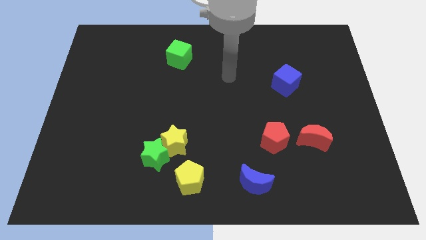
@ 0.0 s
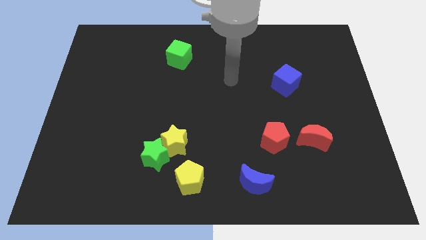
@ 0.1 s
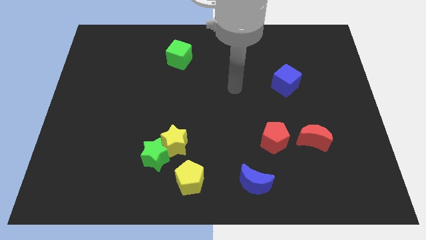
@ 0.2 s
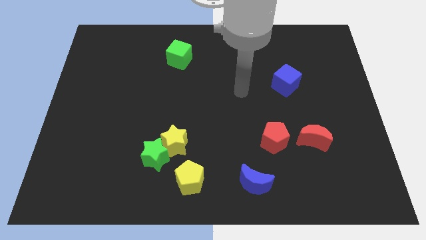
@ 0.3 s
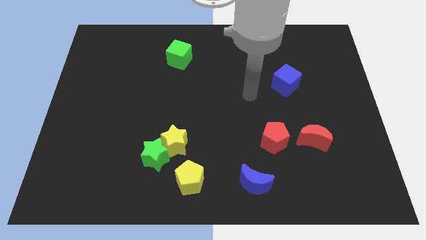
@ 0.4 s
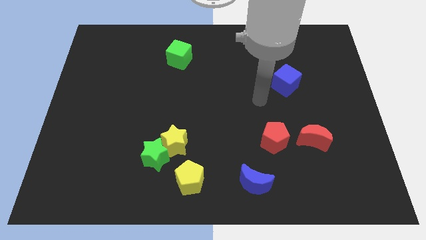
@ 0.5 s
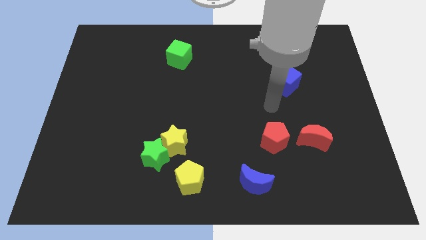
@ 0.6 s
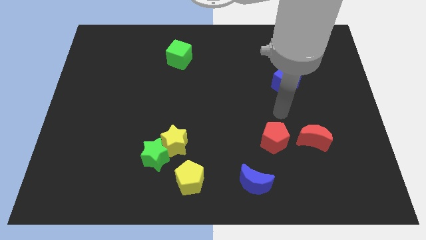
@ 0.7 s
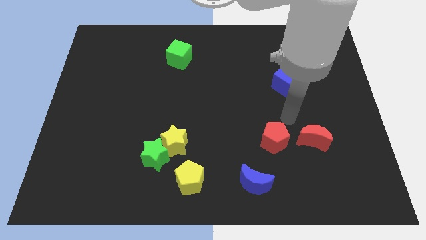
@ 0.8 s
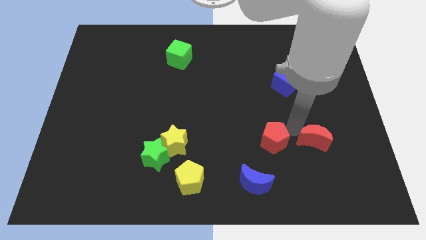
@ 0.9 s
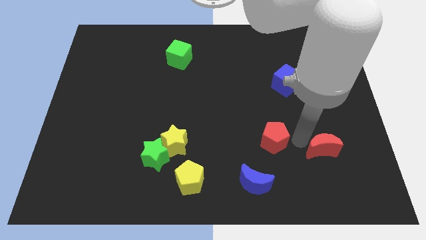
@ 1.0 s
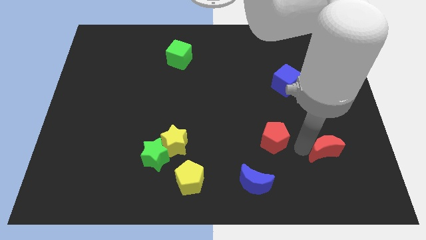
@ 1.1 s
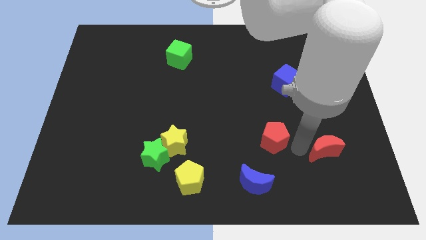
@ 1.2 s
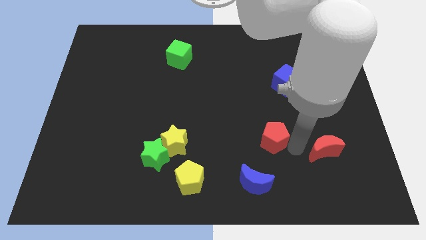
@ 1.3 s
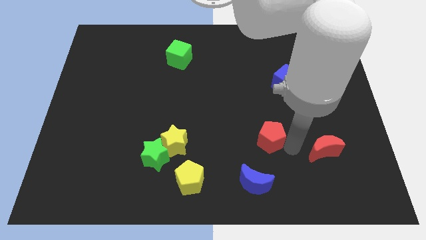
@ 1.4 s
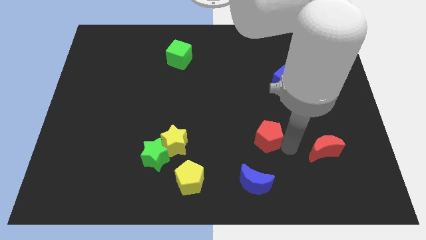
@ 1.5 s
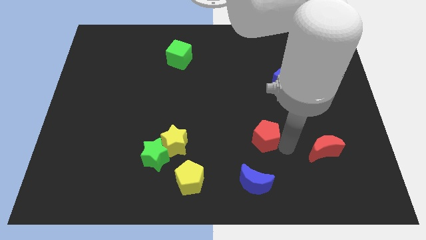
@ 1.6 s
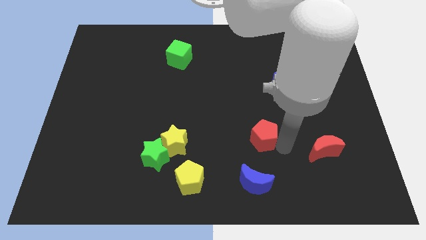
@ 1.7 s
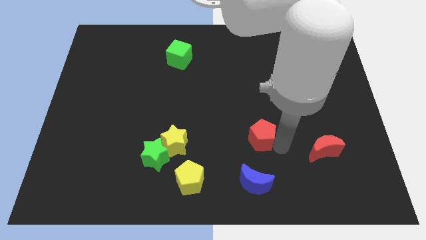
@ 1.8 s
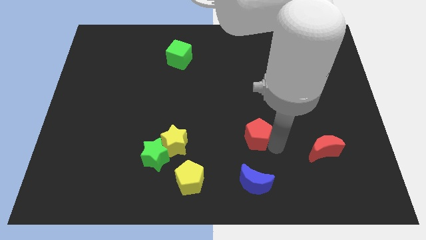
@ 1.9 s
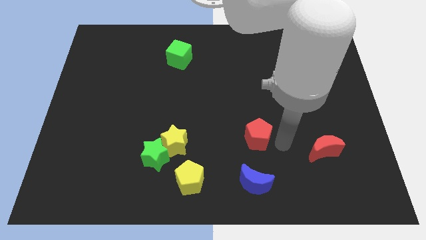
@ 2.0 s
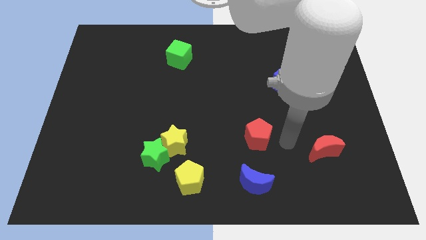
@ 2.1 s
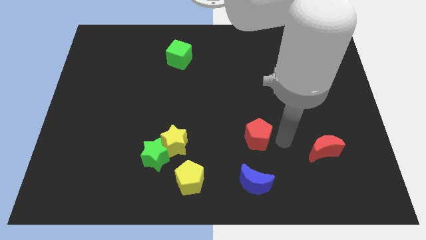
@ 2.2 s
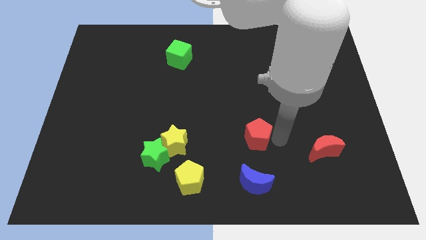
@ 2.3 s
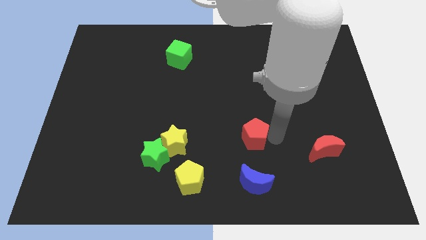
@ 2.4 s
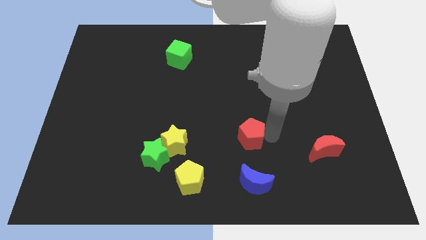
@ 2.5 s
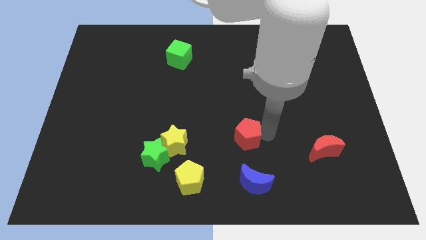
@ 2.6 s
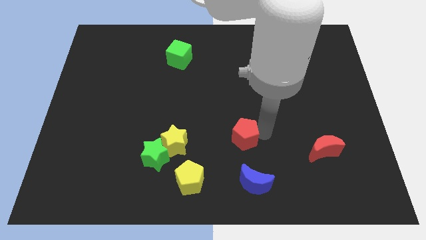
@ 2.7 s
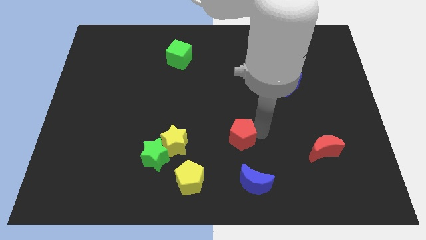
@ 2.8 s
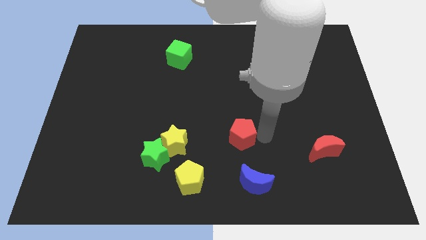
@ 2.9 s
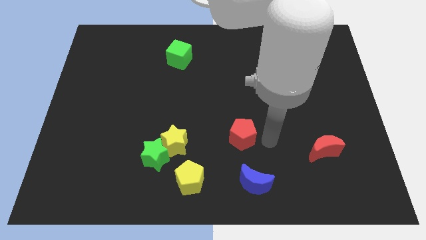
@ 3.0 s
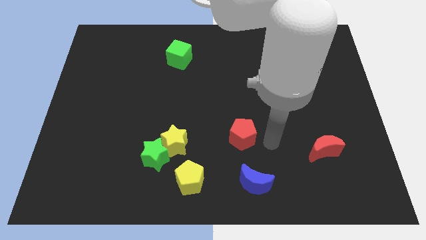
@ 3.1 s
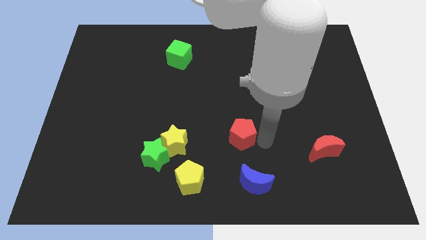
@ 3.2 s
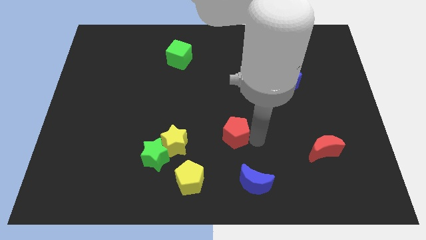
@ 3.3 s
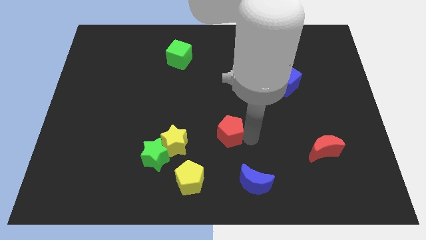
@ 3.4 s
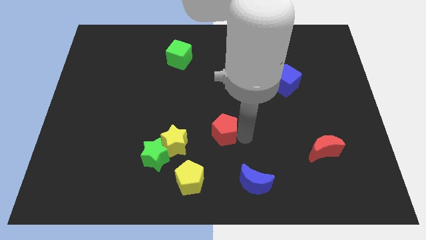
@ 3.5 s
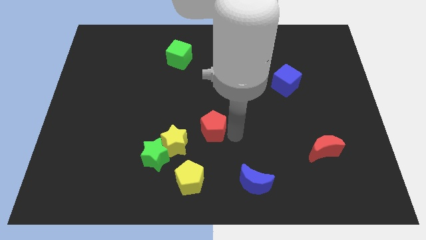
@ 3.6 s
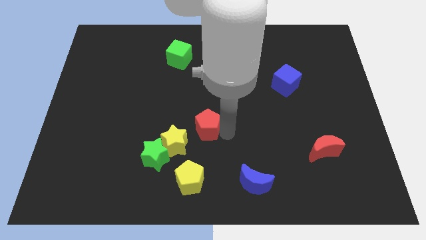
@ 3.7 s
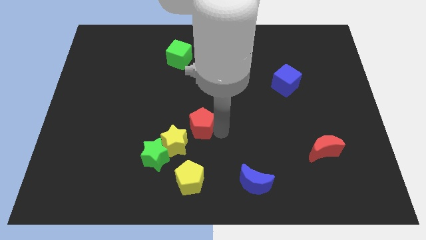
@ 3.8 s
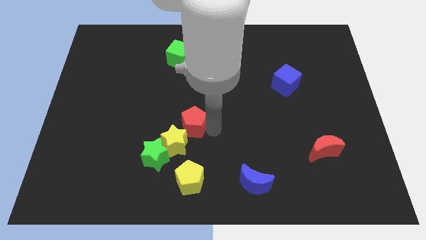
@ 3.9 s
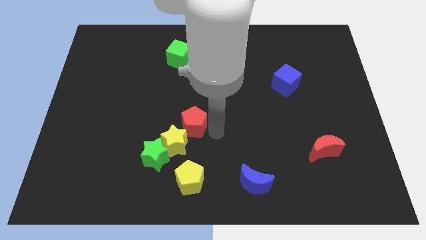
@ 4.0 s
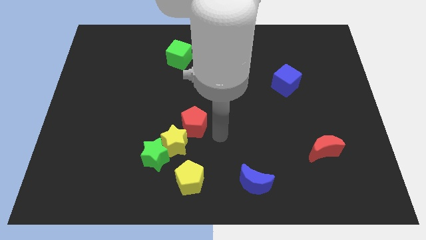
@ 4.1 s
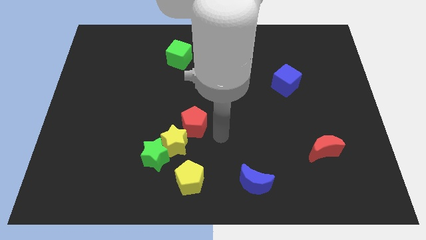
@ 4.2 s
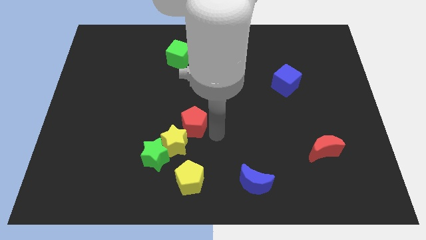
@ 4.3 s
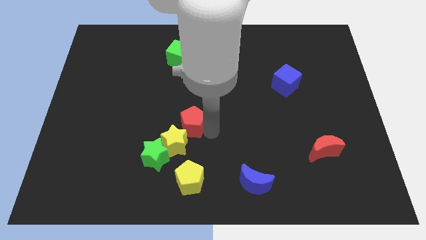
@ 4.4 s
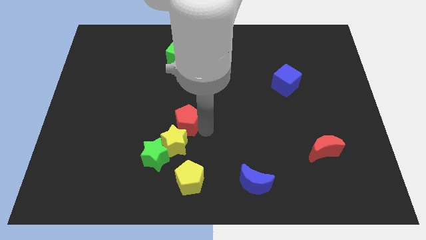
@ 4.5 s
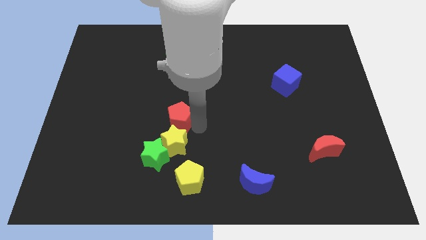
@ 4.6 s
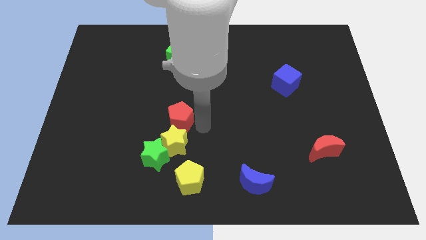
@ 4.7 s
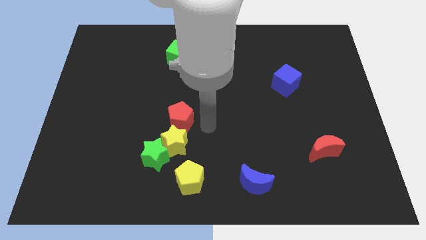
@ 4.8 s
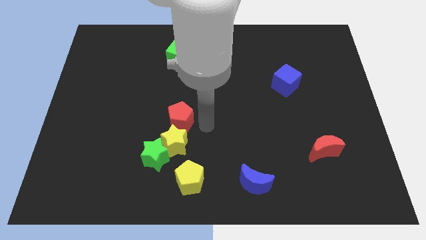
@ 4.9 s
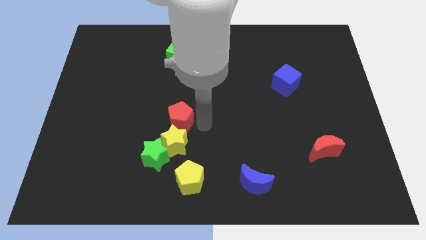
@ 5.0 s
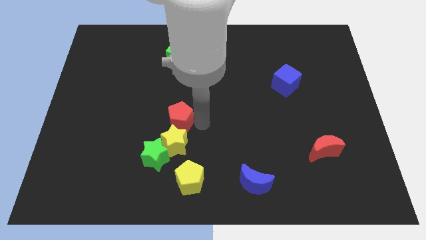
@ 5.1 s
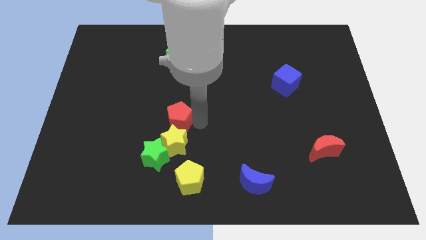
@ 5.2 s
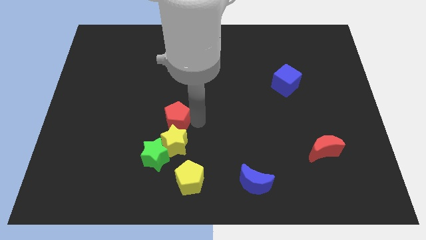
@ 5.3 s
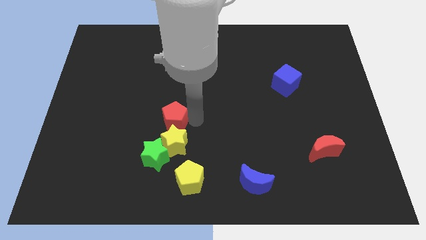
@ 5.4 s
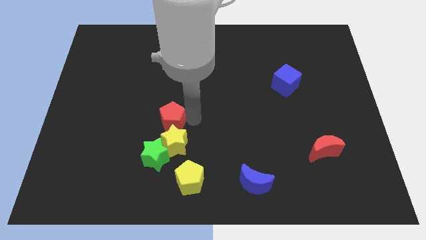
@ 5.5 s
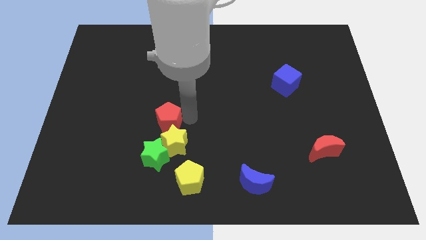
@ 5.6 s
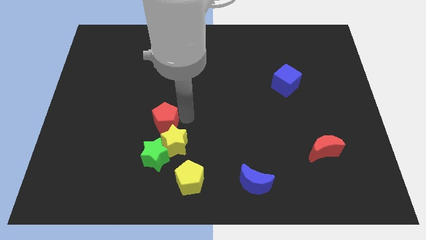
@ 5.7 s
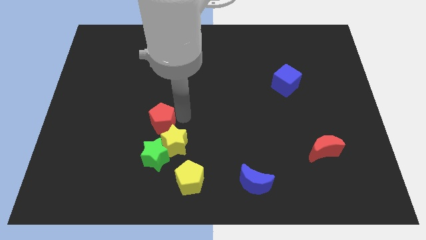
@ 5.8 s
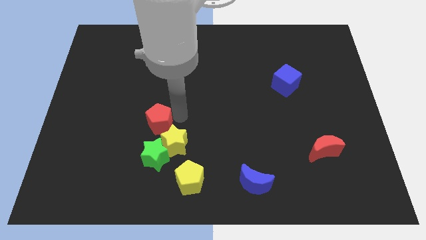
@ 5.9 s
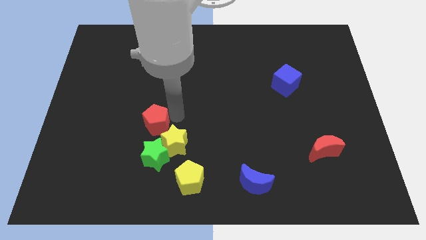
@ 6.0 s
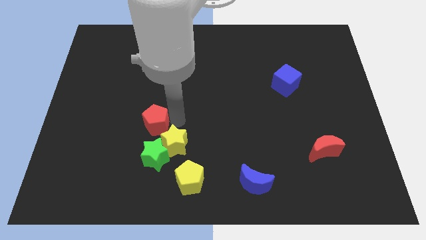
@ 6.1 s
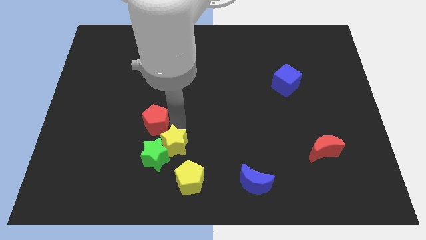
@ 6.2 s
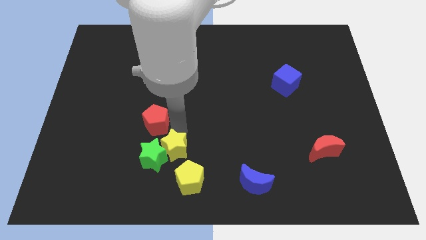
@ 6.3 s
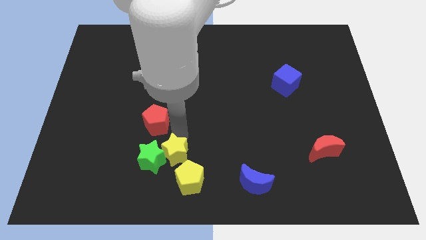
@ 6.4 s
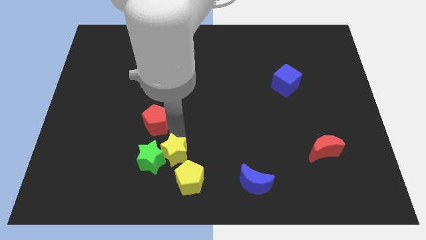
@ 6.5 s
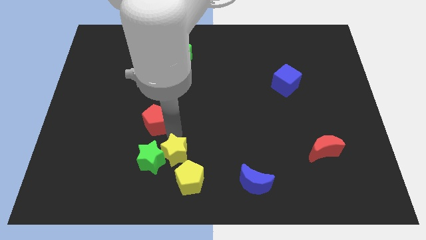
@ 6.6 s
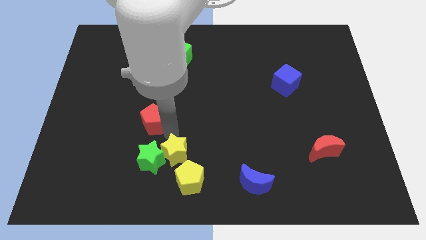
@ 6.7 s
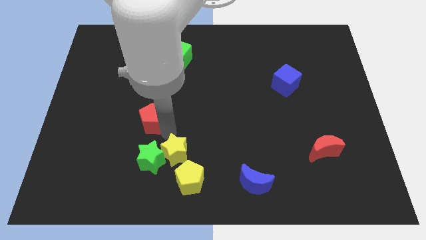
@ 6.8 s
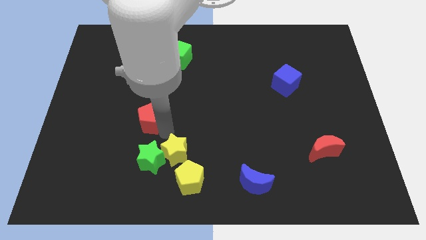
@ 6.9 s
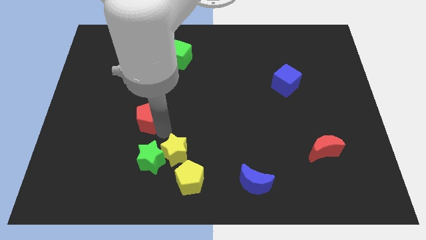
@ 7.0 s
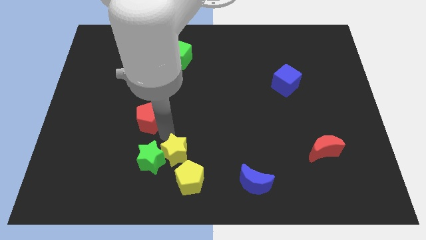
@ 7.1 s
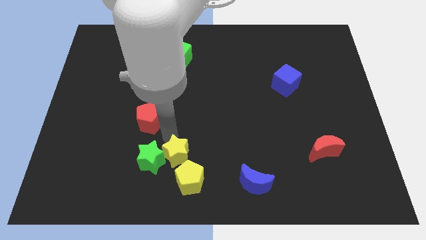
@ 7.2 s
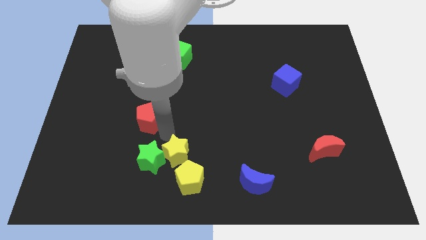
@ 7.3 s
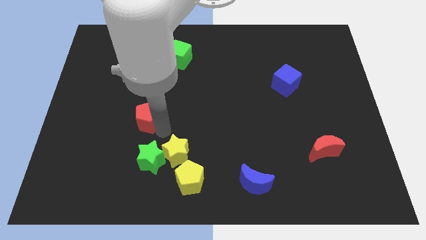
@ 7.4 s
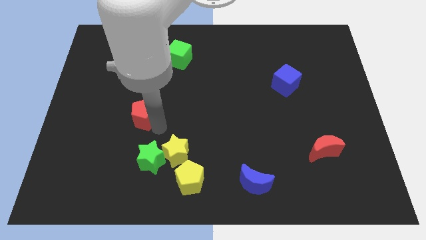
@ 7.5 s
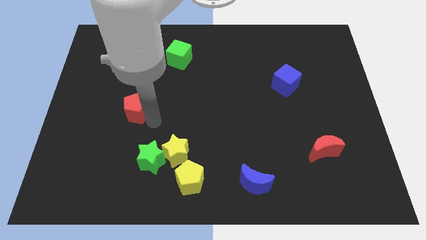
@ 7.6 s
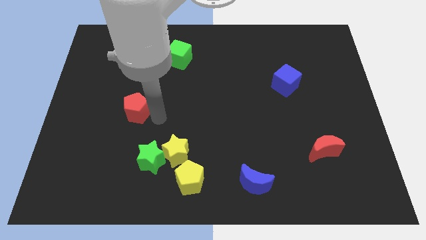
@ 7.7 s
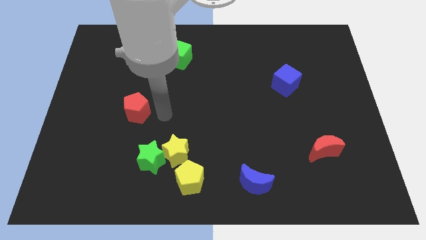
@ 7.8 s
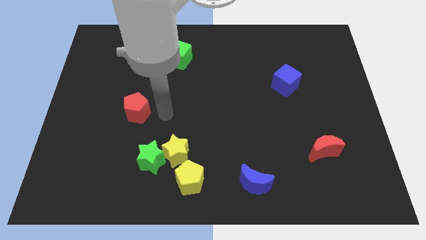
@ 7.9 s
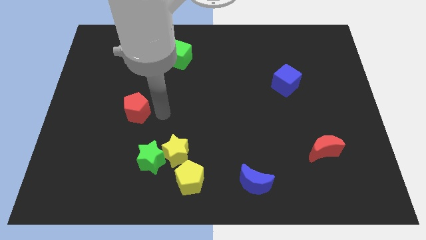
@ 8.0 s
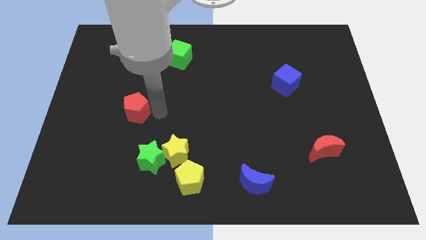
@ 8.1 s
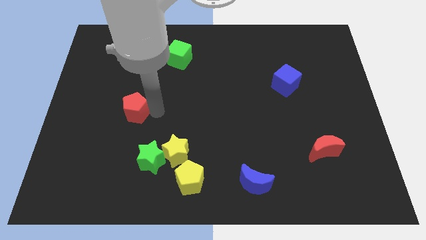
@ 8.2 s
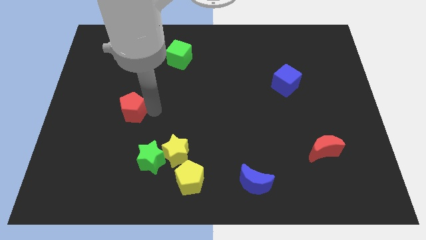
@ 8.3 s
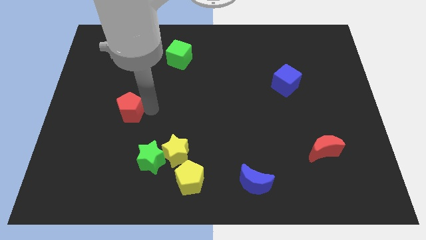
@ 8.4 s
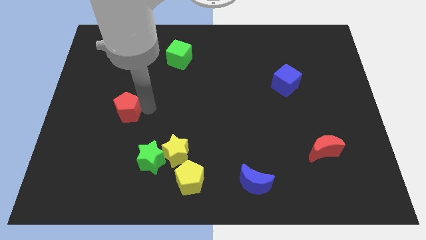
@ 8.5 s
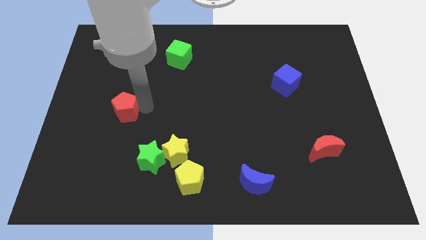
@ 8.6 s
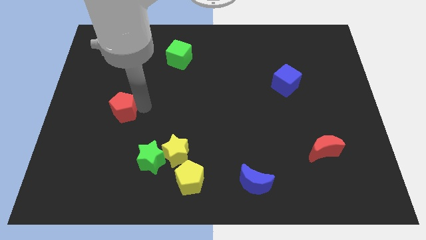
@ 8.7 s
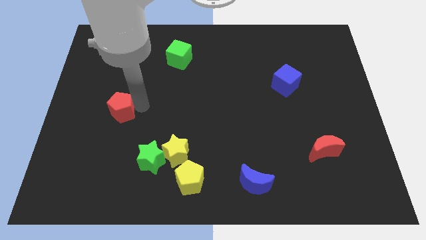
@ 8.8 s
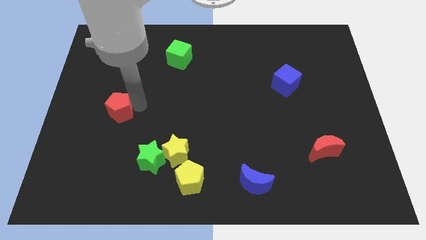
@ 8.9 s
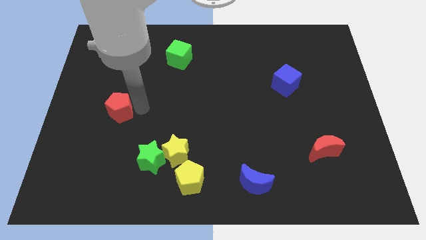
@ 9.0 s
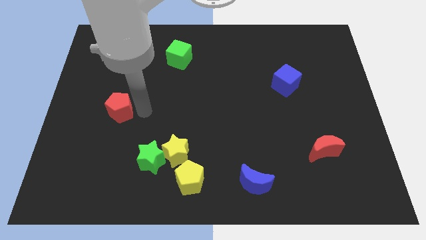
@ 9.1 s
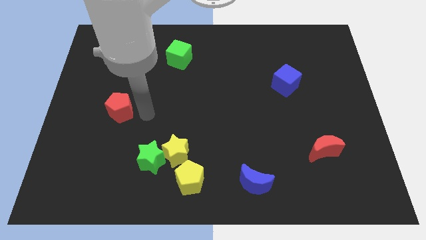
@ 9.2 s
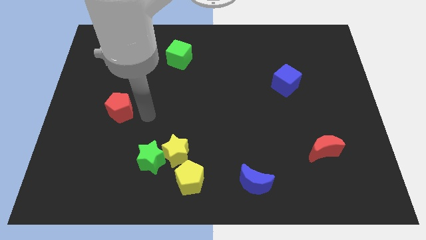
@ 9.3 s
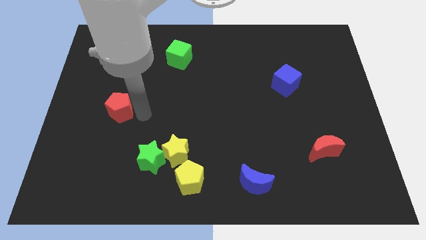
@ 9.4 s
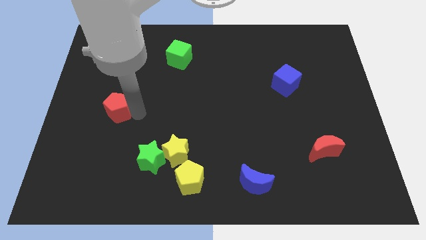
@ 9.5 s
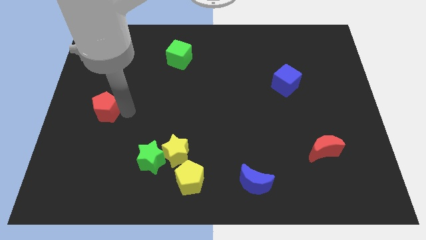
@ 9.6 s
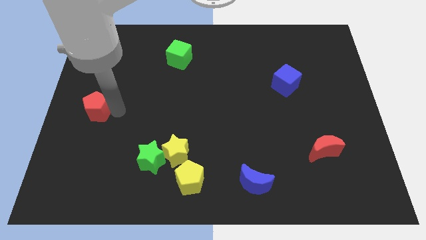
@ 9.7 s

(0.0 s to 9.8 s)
push the red pentagon to the left side of the board
